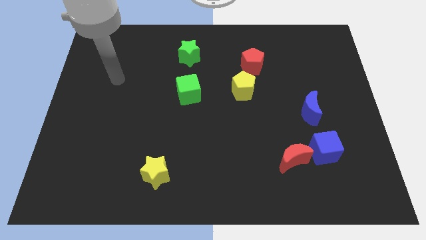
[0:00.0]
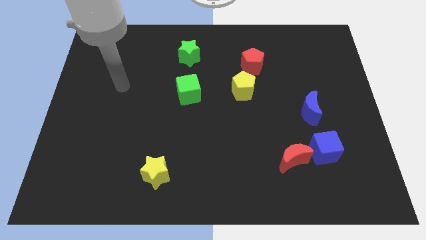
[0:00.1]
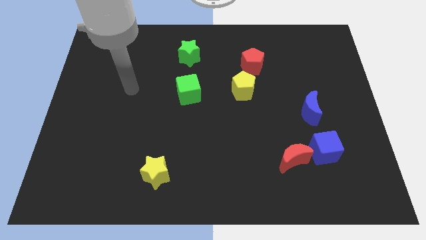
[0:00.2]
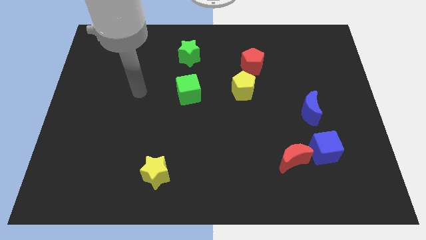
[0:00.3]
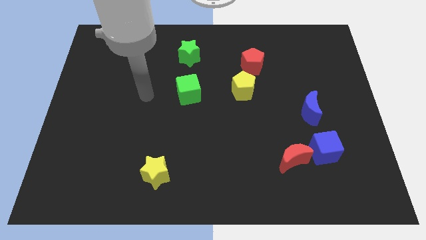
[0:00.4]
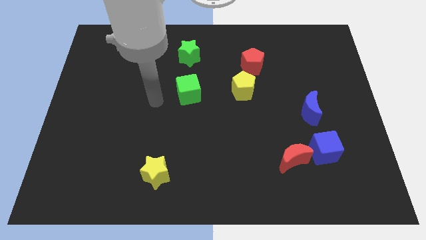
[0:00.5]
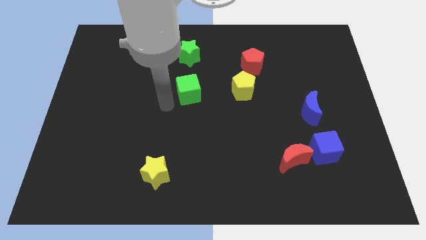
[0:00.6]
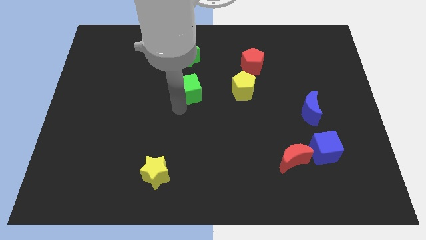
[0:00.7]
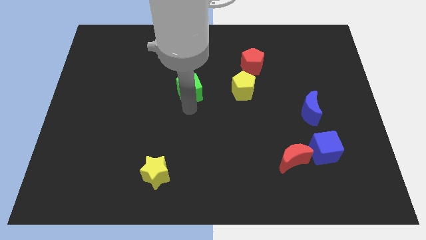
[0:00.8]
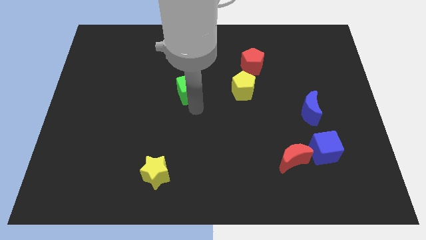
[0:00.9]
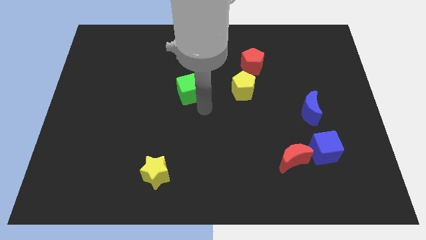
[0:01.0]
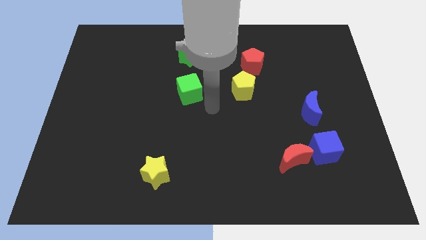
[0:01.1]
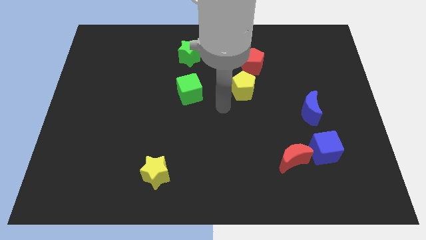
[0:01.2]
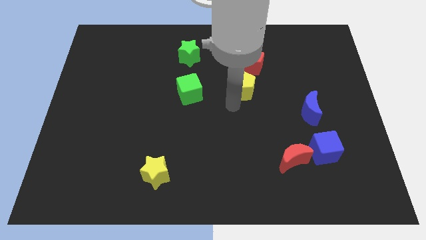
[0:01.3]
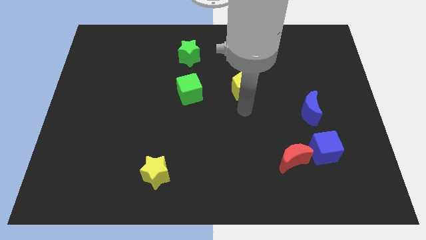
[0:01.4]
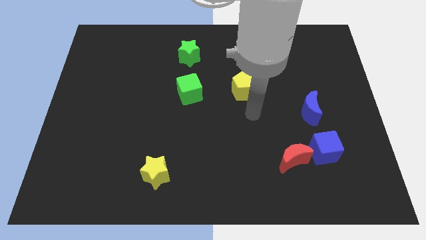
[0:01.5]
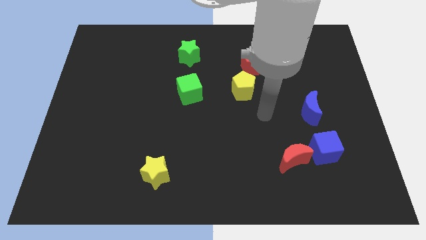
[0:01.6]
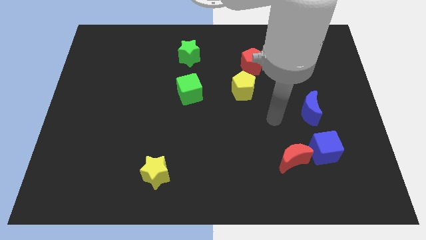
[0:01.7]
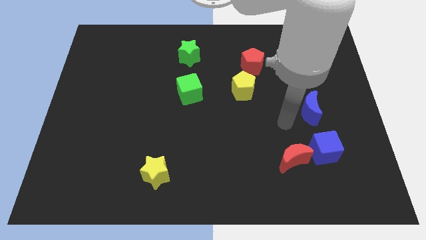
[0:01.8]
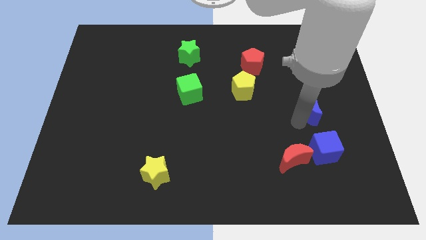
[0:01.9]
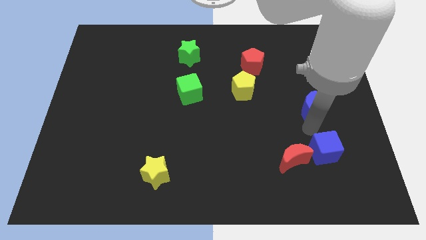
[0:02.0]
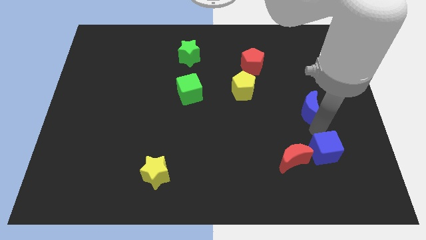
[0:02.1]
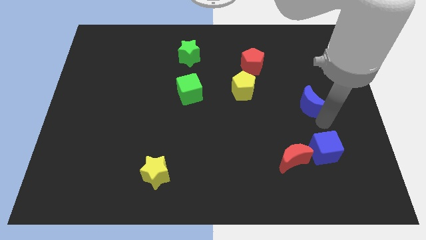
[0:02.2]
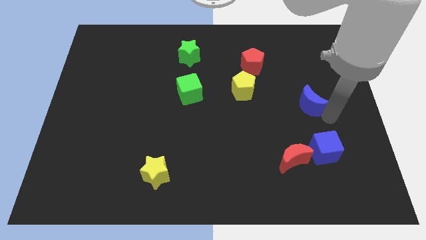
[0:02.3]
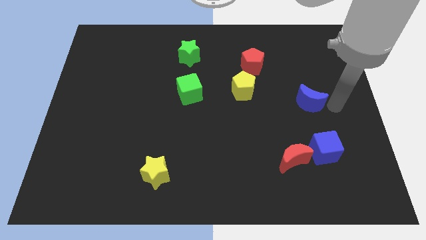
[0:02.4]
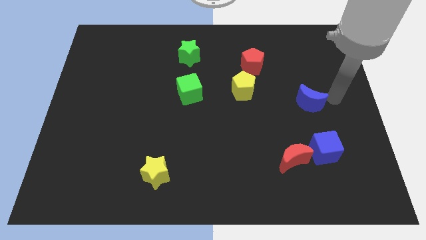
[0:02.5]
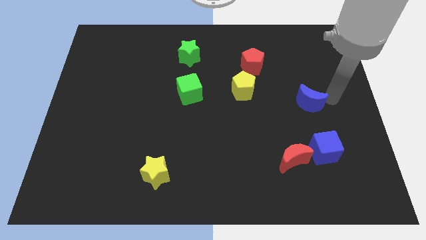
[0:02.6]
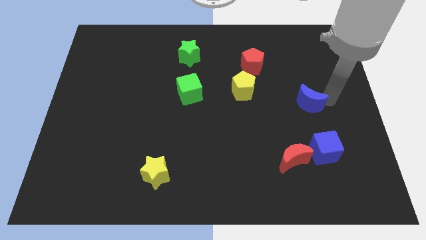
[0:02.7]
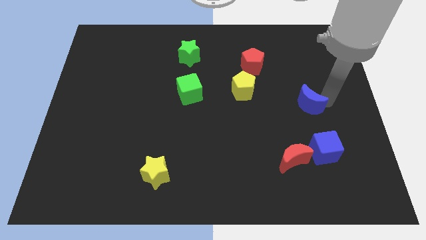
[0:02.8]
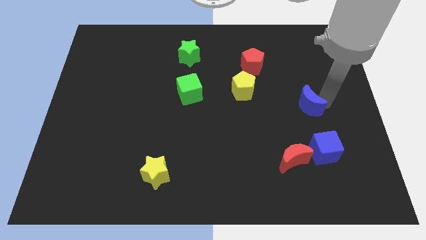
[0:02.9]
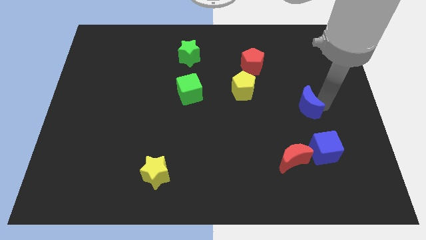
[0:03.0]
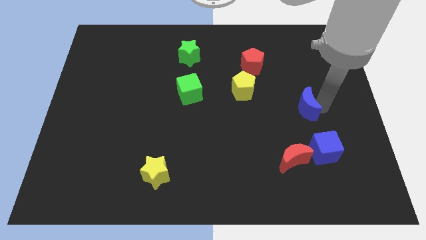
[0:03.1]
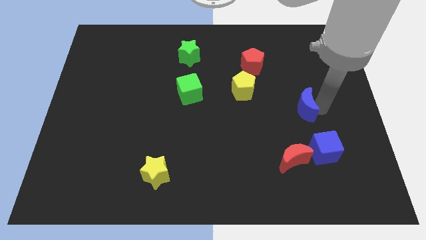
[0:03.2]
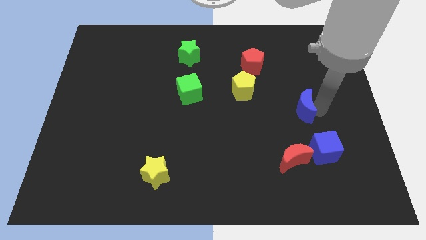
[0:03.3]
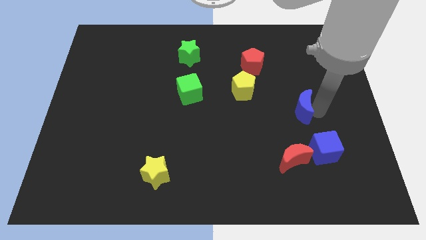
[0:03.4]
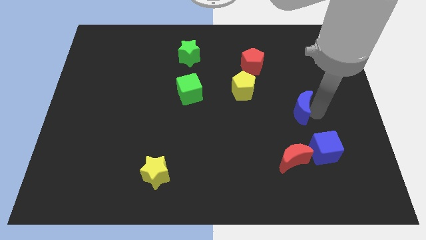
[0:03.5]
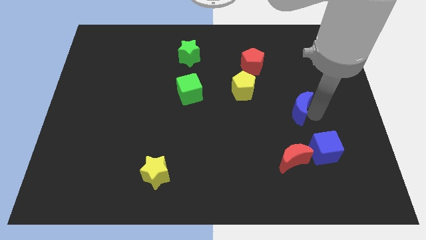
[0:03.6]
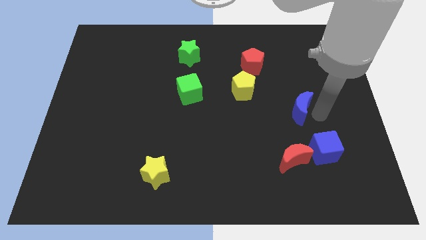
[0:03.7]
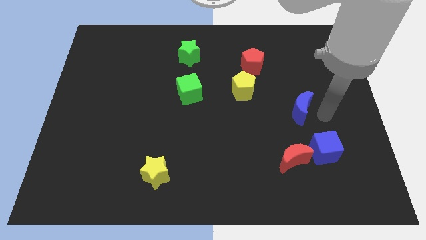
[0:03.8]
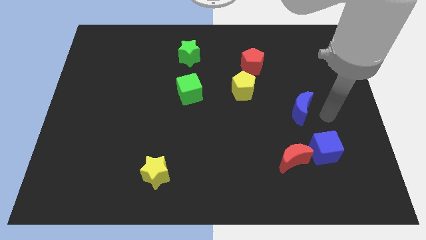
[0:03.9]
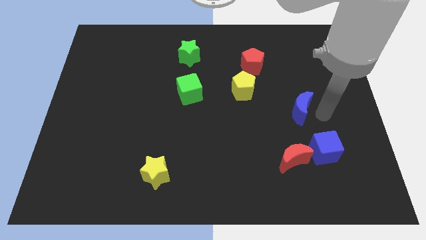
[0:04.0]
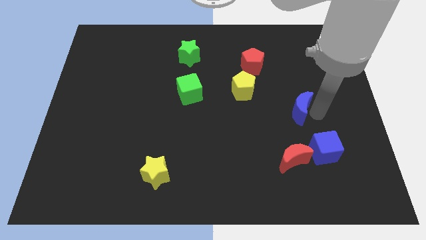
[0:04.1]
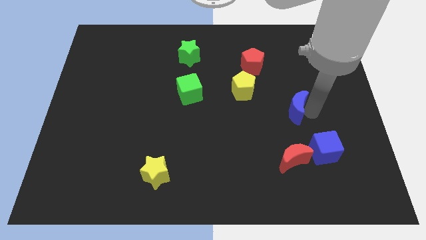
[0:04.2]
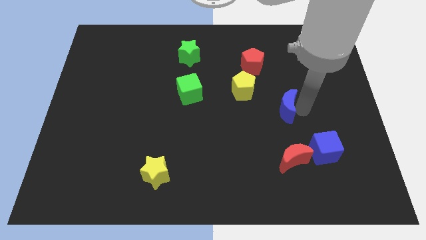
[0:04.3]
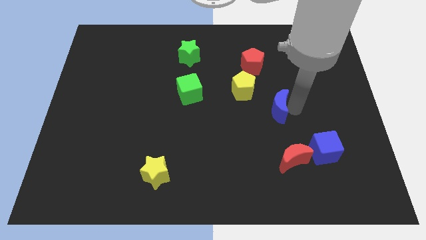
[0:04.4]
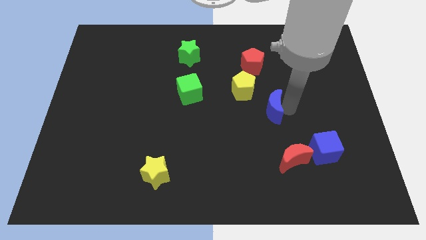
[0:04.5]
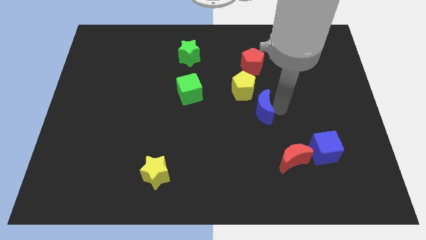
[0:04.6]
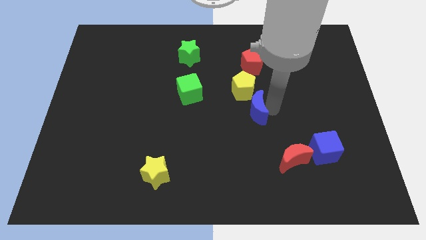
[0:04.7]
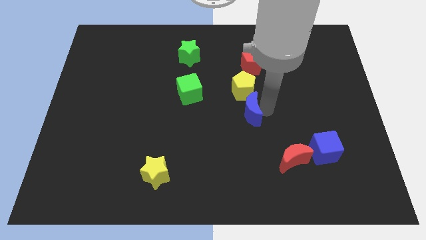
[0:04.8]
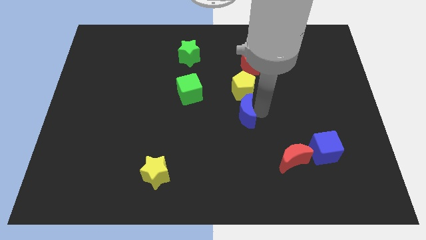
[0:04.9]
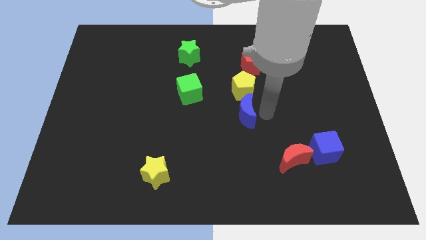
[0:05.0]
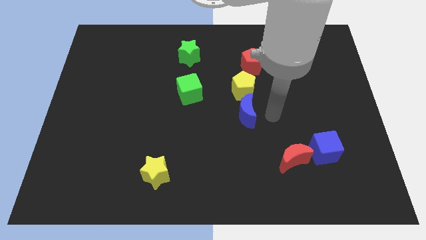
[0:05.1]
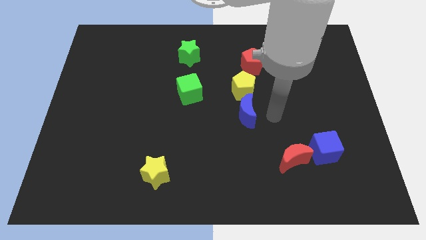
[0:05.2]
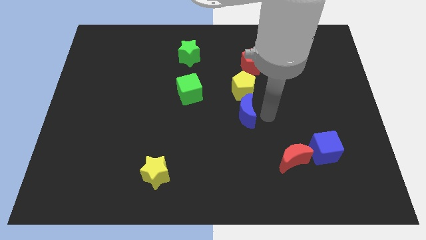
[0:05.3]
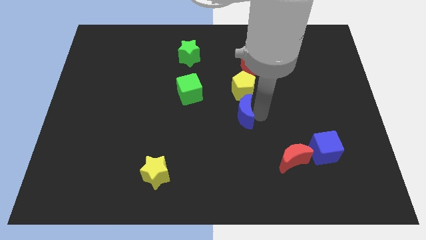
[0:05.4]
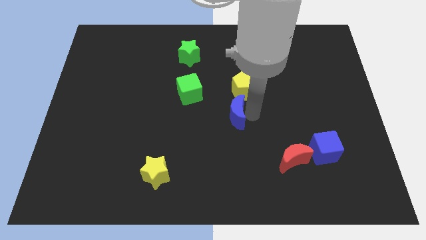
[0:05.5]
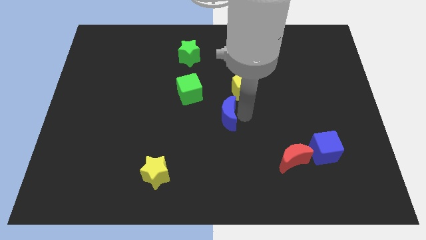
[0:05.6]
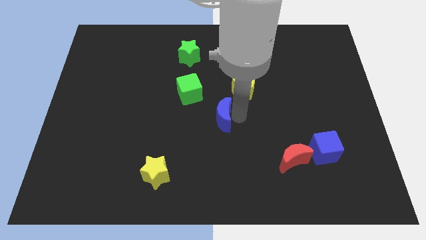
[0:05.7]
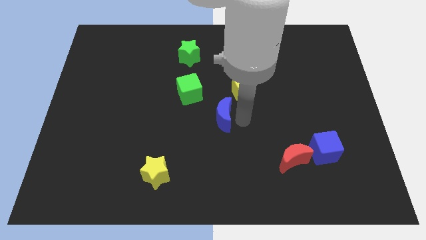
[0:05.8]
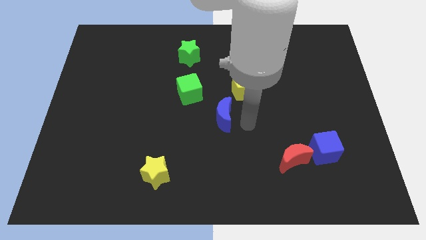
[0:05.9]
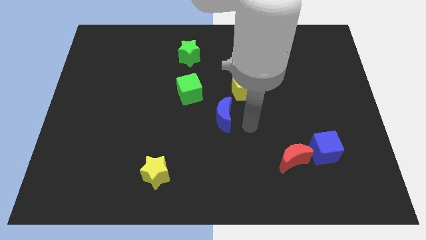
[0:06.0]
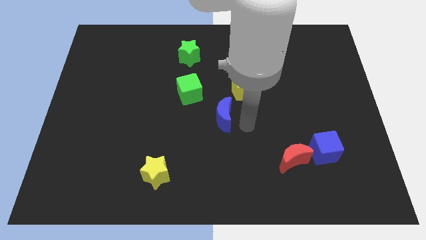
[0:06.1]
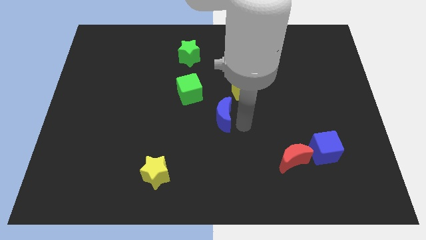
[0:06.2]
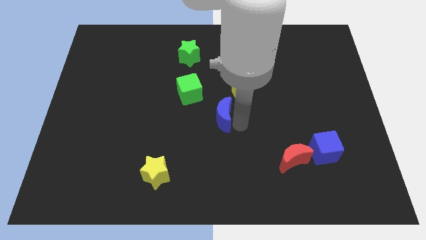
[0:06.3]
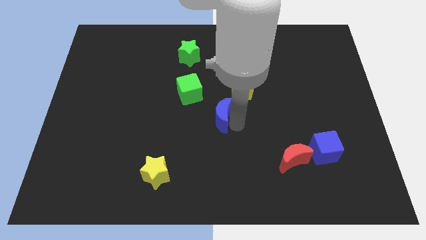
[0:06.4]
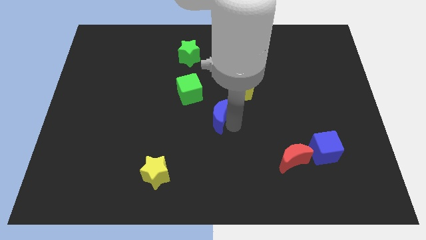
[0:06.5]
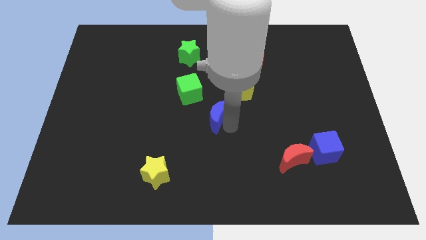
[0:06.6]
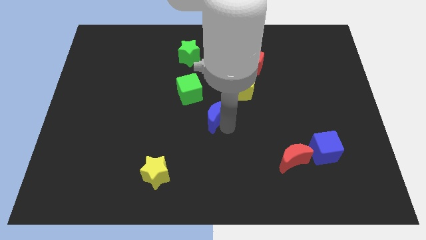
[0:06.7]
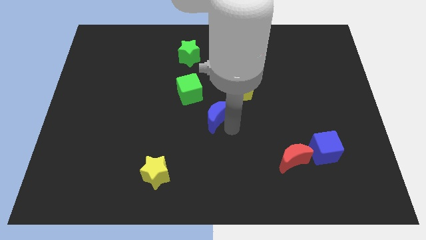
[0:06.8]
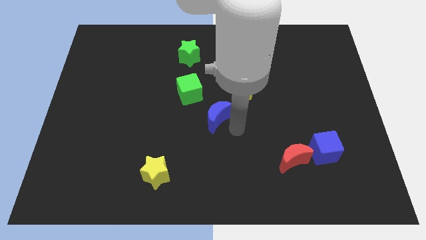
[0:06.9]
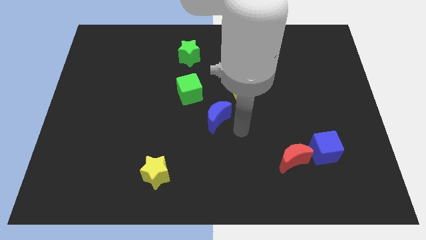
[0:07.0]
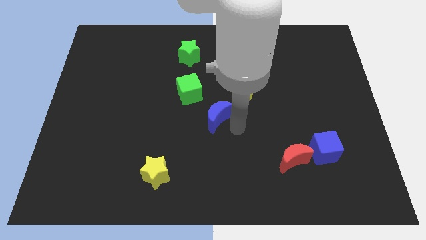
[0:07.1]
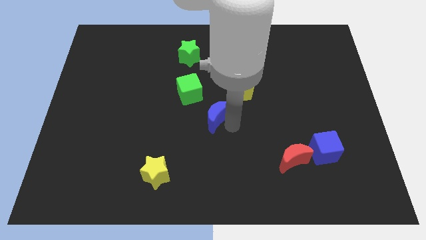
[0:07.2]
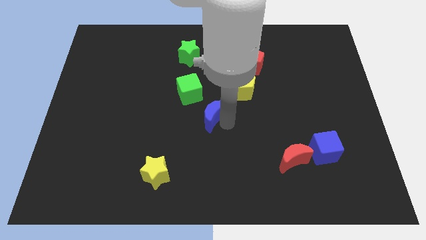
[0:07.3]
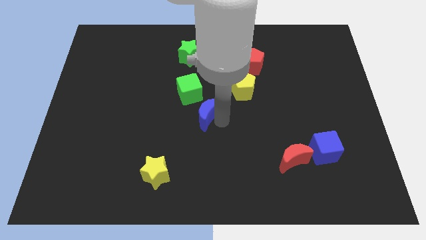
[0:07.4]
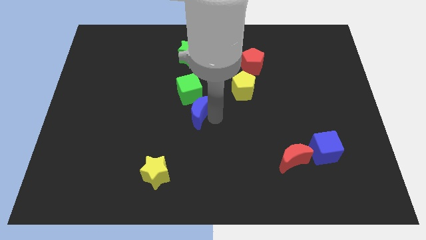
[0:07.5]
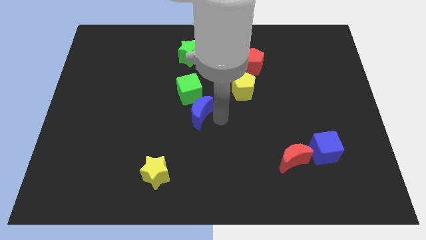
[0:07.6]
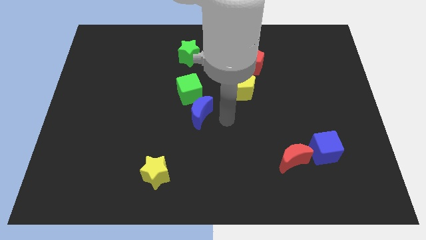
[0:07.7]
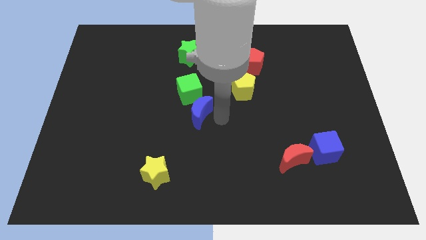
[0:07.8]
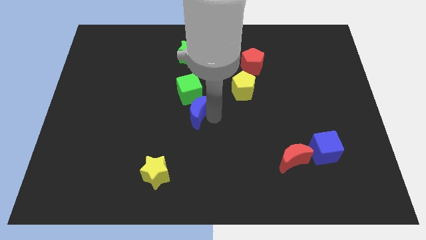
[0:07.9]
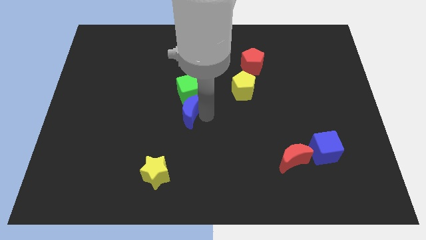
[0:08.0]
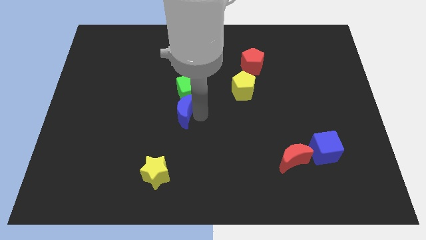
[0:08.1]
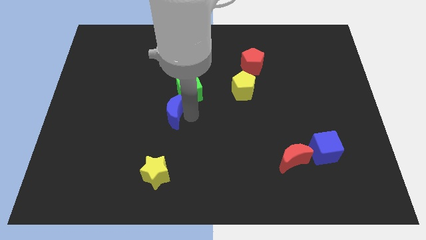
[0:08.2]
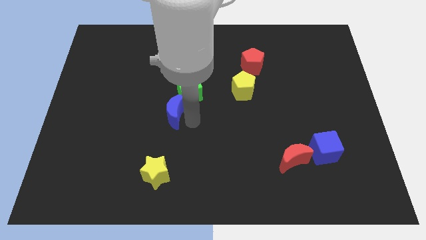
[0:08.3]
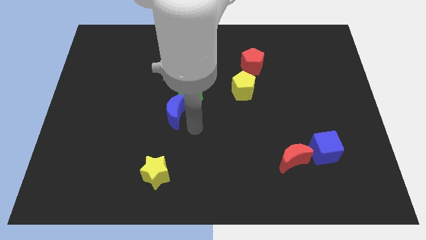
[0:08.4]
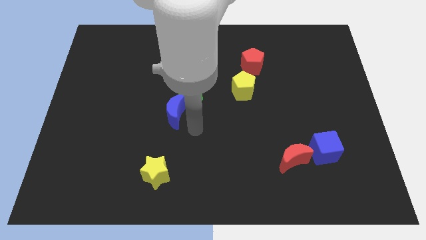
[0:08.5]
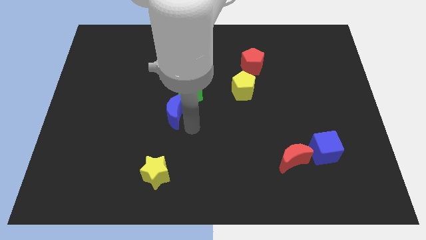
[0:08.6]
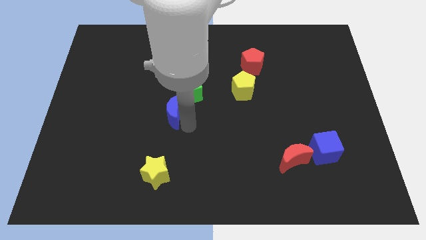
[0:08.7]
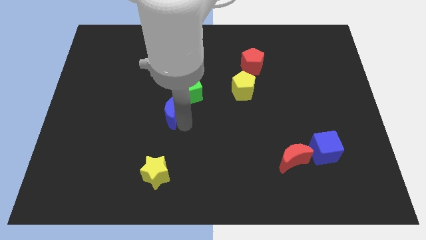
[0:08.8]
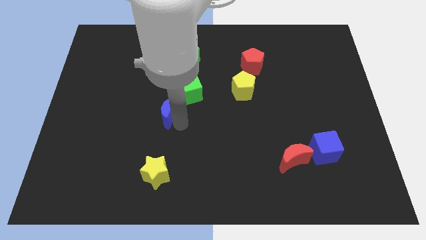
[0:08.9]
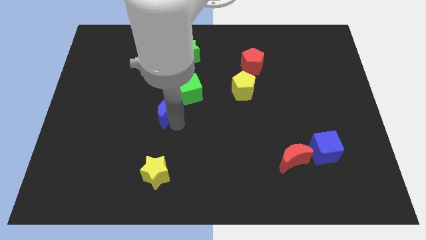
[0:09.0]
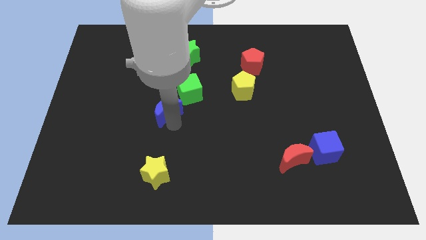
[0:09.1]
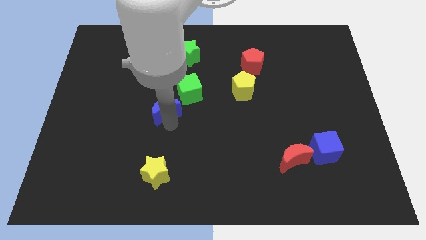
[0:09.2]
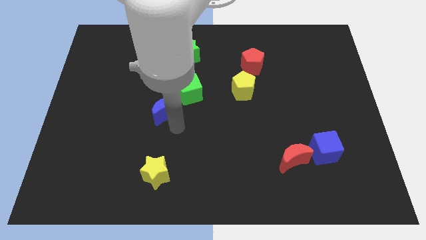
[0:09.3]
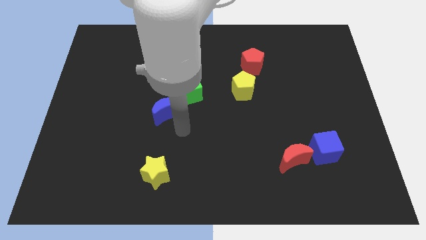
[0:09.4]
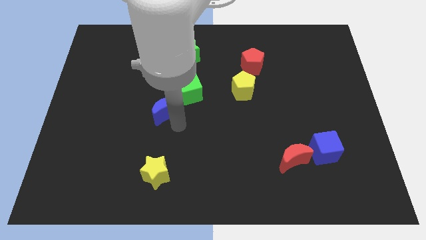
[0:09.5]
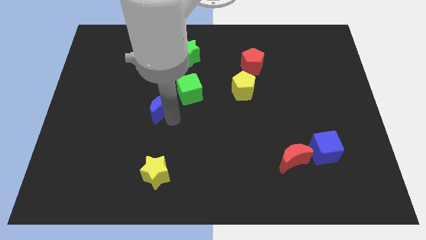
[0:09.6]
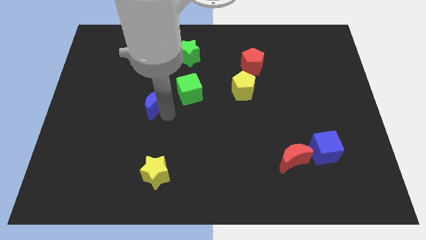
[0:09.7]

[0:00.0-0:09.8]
slide the blue moon just left of the green cube
